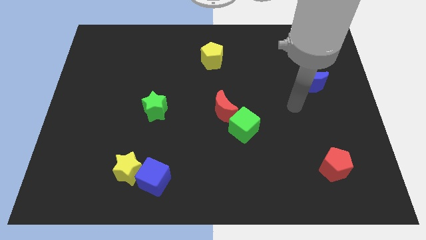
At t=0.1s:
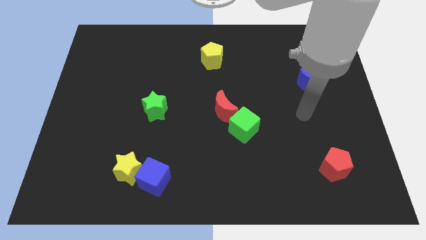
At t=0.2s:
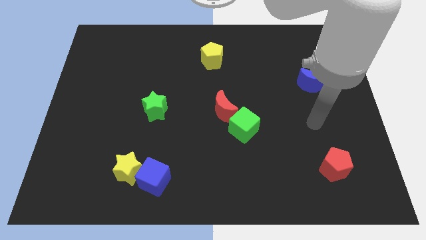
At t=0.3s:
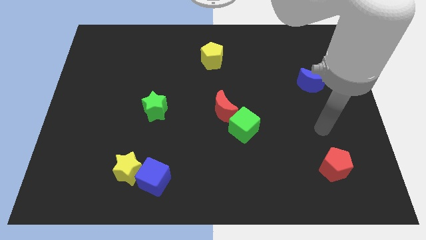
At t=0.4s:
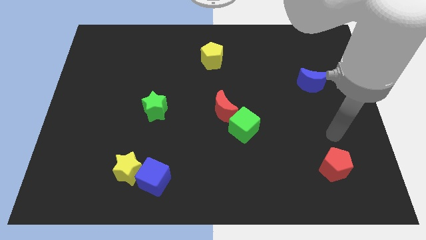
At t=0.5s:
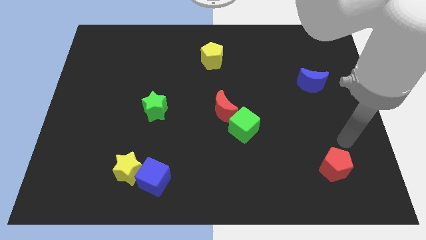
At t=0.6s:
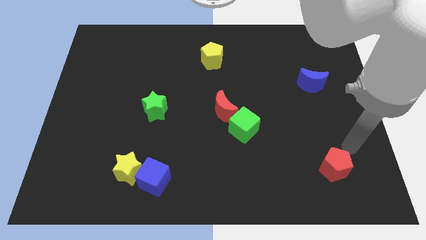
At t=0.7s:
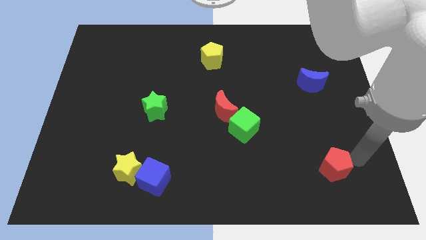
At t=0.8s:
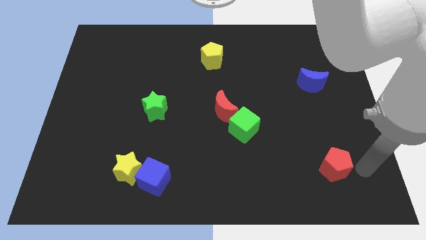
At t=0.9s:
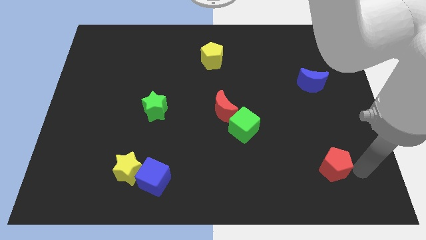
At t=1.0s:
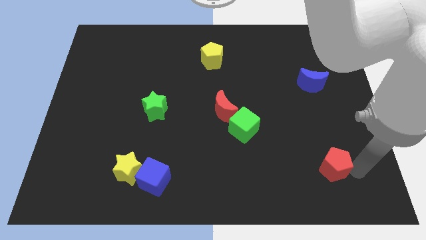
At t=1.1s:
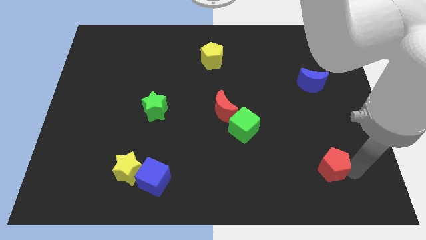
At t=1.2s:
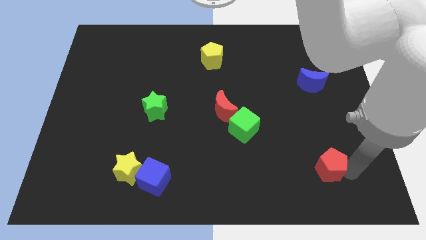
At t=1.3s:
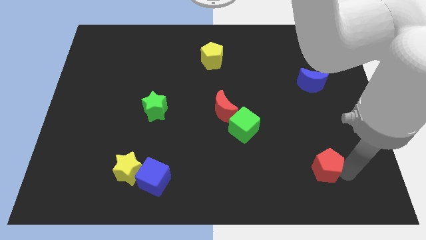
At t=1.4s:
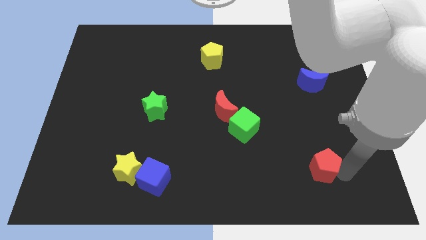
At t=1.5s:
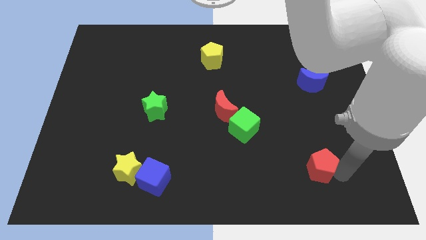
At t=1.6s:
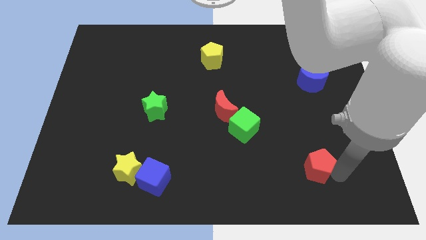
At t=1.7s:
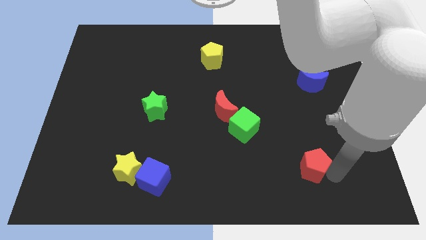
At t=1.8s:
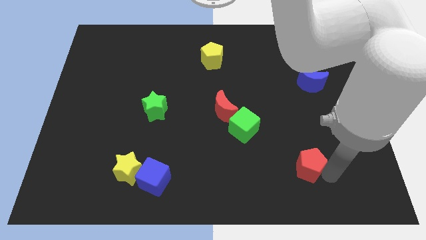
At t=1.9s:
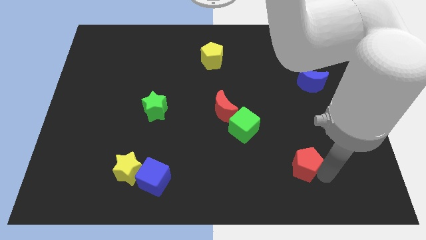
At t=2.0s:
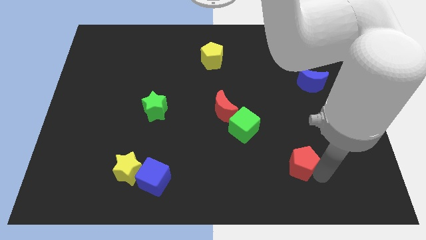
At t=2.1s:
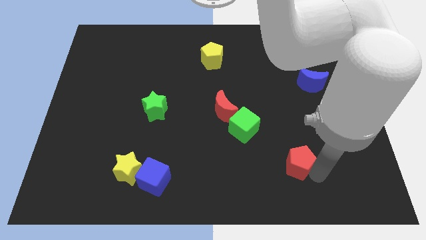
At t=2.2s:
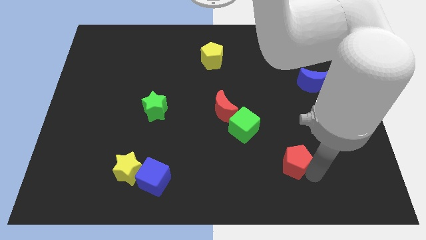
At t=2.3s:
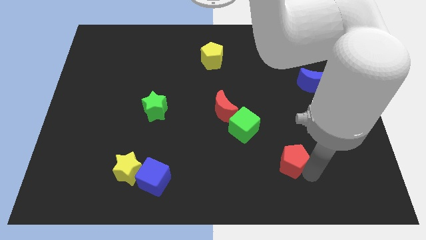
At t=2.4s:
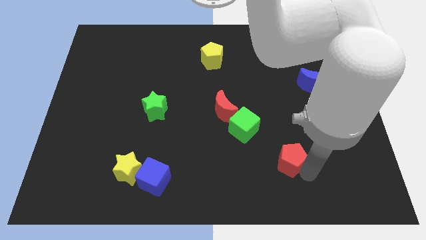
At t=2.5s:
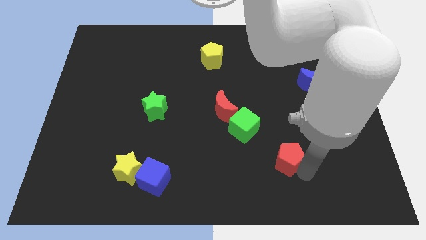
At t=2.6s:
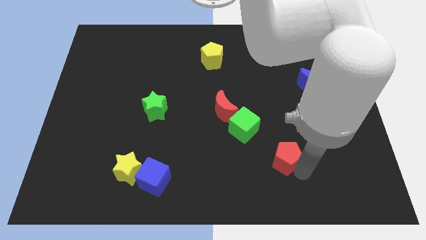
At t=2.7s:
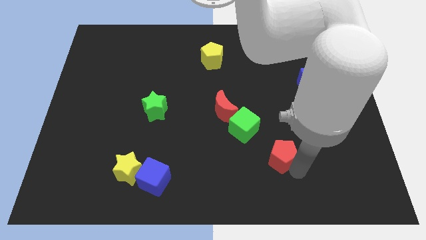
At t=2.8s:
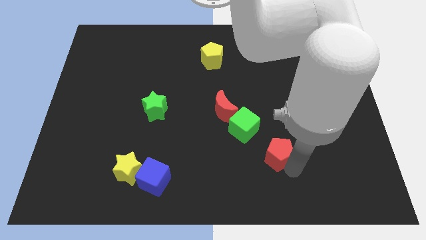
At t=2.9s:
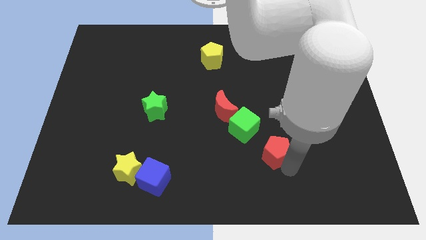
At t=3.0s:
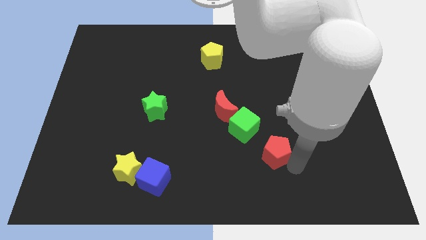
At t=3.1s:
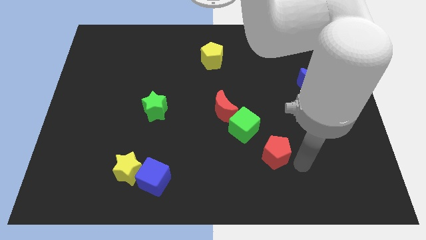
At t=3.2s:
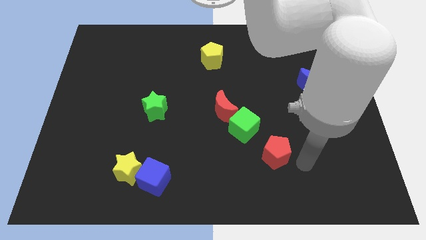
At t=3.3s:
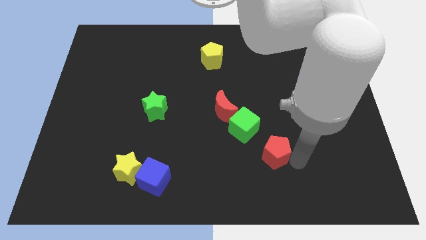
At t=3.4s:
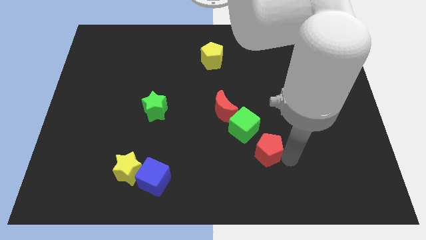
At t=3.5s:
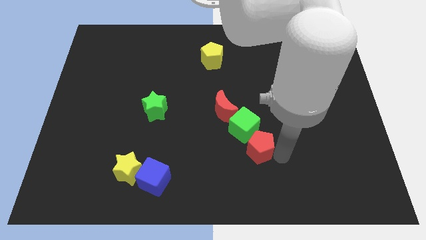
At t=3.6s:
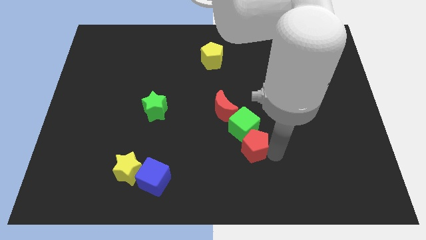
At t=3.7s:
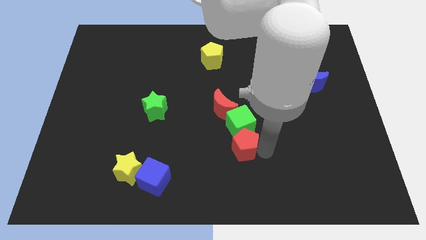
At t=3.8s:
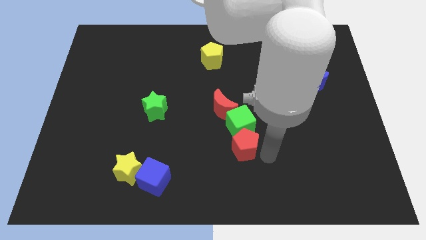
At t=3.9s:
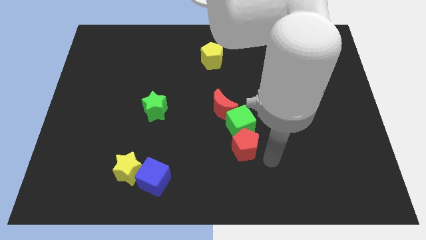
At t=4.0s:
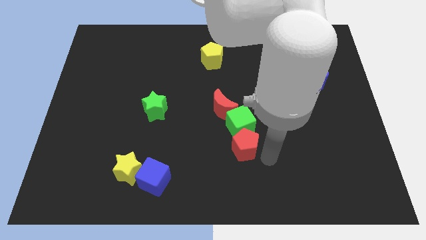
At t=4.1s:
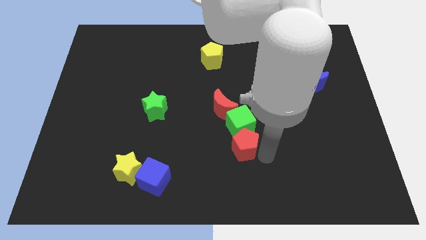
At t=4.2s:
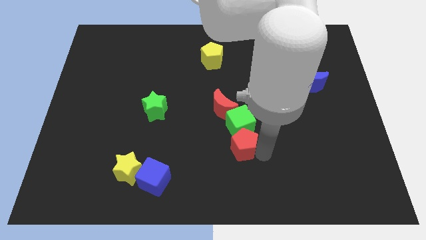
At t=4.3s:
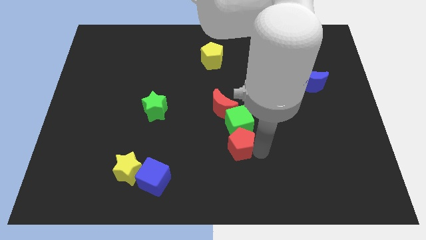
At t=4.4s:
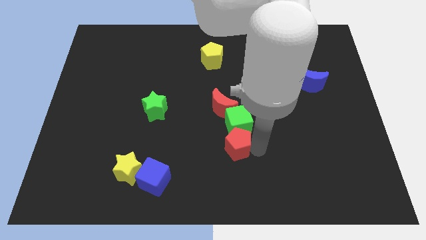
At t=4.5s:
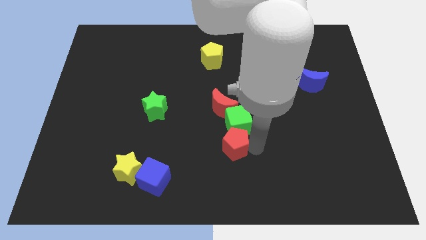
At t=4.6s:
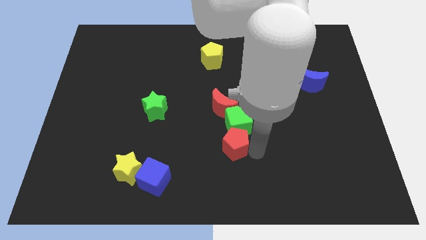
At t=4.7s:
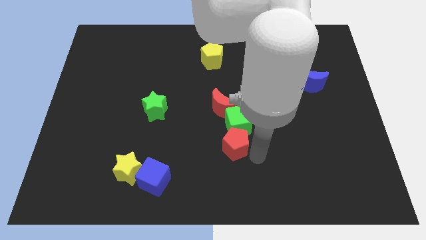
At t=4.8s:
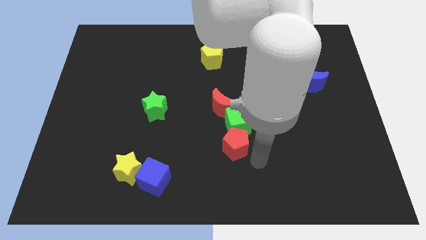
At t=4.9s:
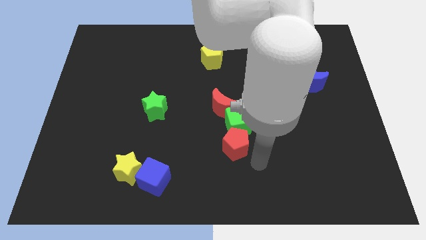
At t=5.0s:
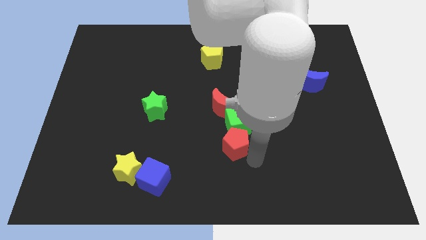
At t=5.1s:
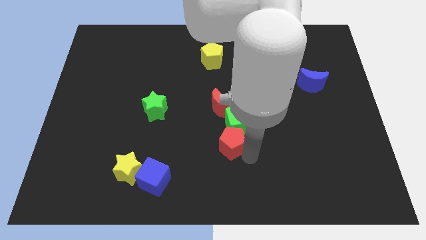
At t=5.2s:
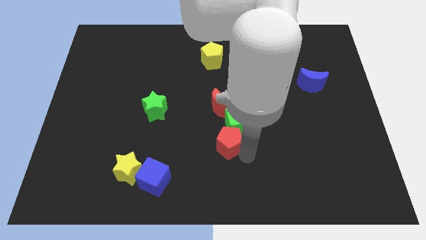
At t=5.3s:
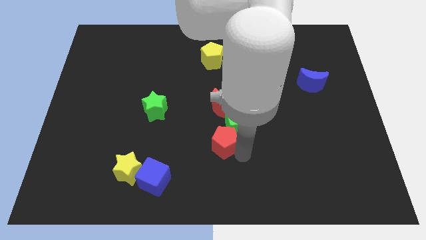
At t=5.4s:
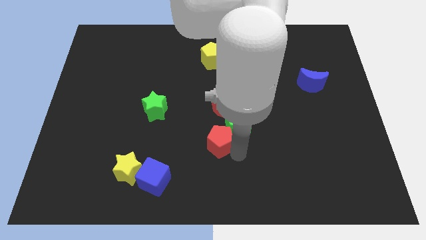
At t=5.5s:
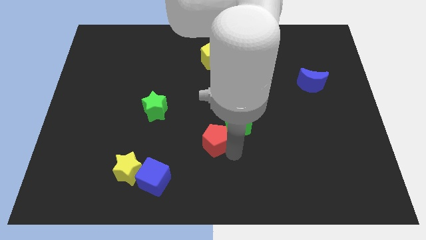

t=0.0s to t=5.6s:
slide the red pentagon left of the green cube

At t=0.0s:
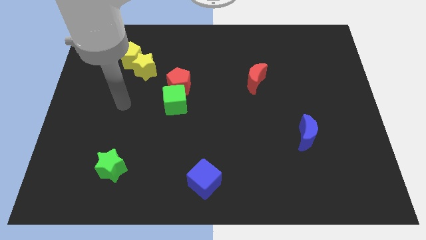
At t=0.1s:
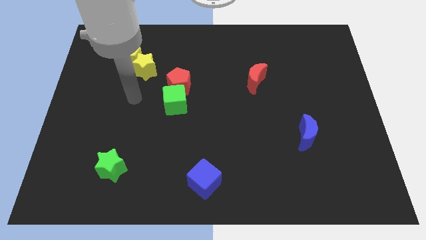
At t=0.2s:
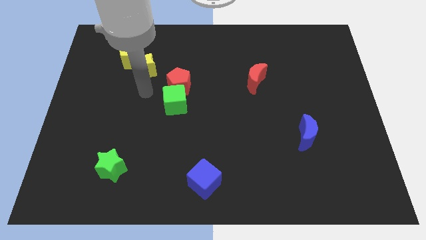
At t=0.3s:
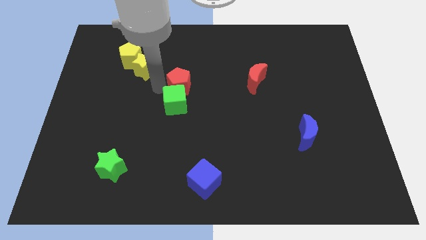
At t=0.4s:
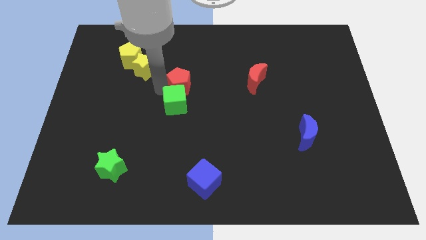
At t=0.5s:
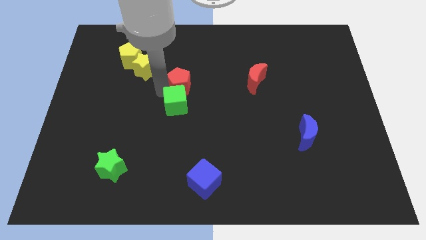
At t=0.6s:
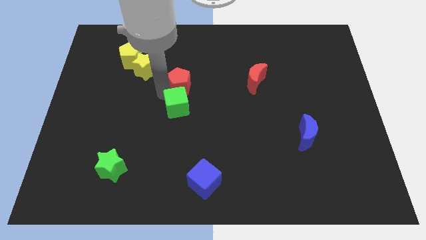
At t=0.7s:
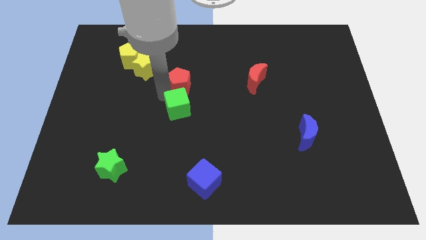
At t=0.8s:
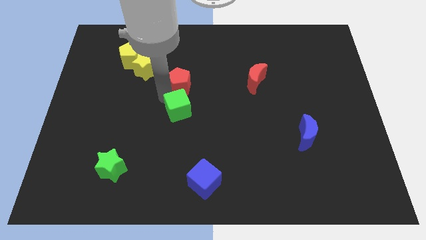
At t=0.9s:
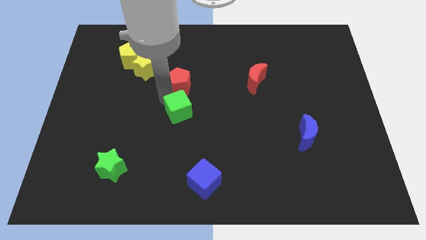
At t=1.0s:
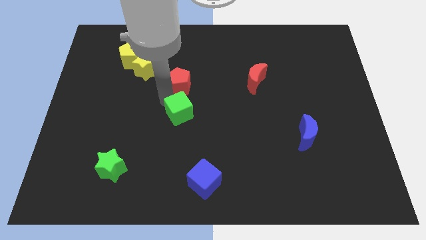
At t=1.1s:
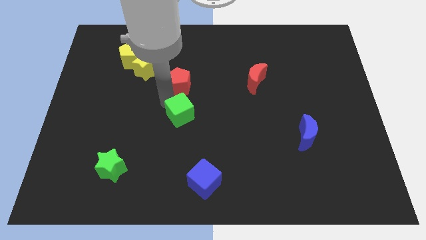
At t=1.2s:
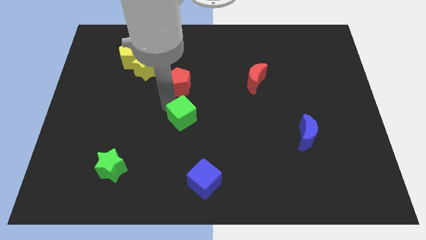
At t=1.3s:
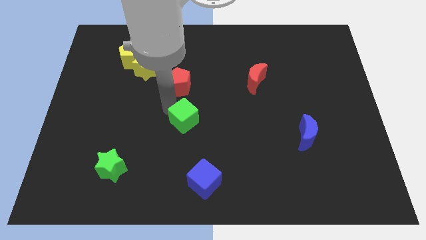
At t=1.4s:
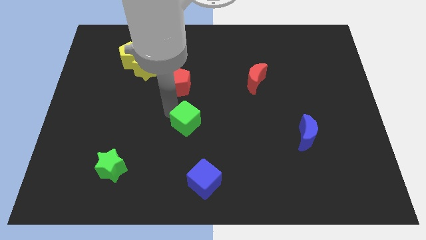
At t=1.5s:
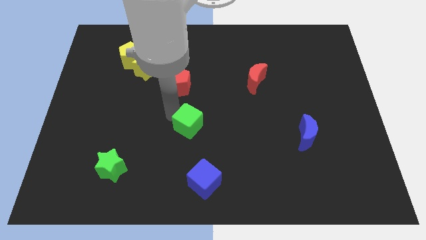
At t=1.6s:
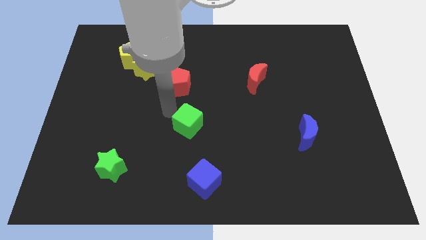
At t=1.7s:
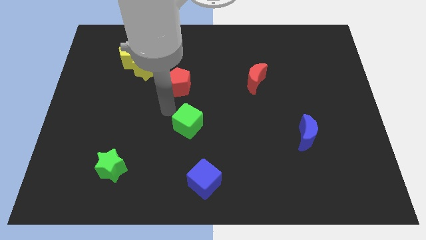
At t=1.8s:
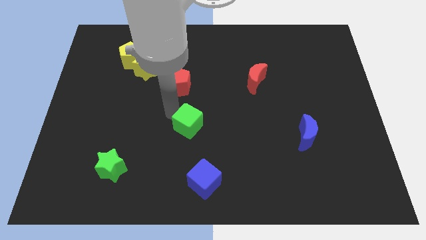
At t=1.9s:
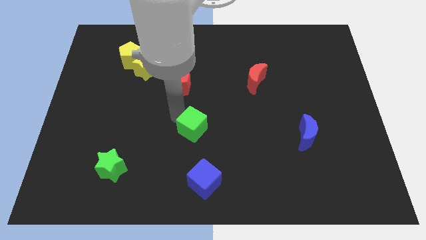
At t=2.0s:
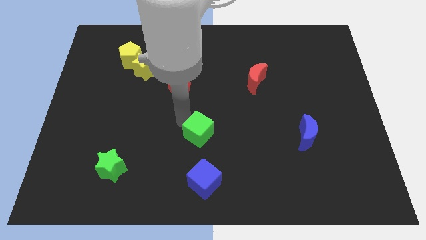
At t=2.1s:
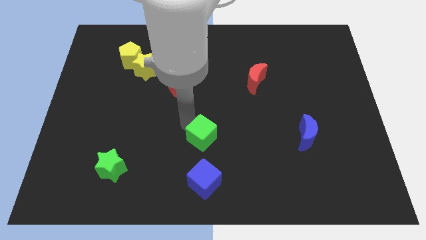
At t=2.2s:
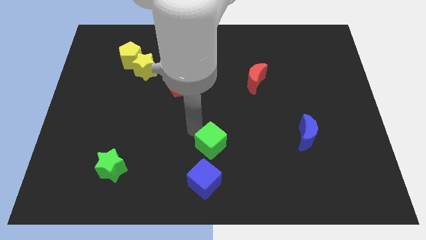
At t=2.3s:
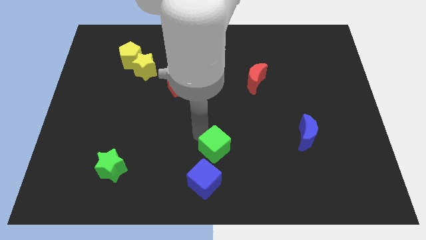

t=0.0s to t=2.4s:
move the green cube to the top right of the blue cube
